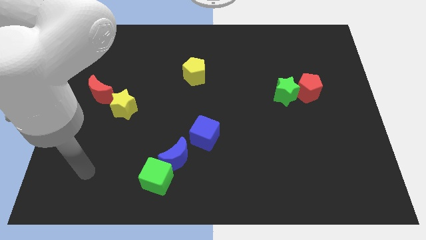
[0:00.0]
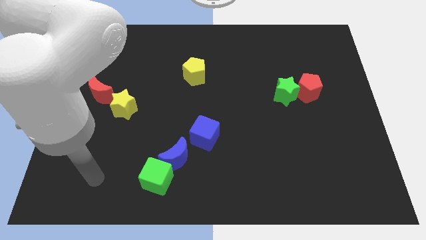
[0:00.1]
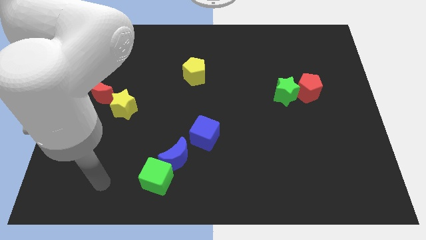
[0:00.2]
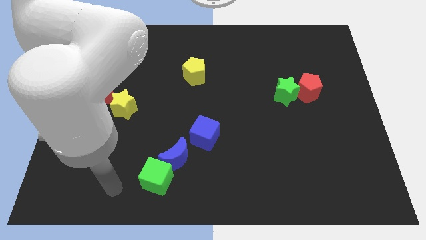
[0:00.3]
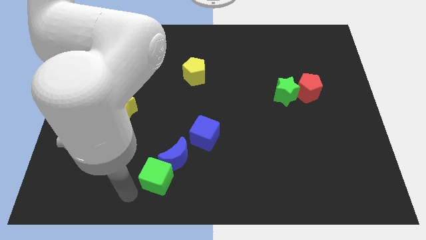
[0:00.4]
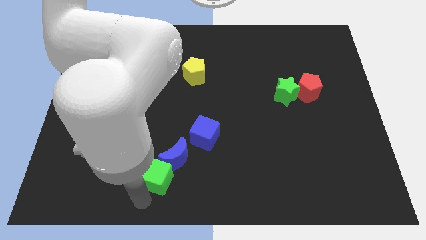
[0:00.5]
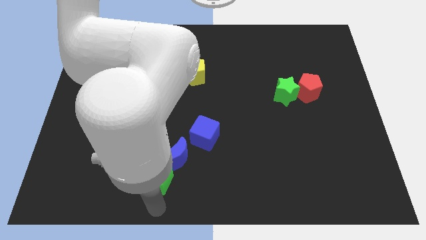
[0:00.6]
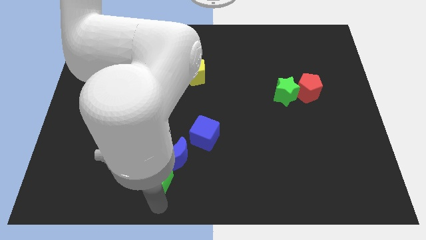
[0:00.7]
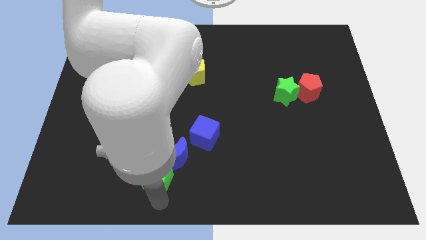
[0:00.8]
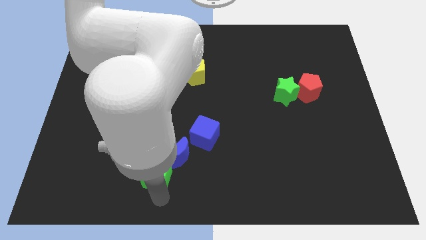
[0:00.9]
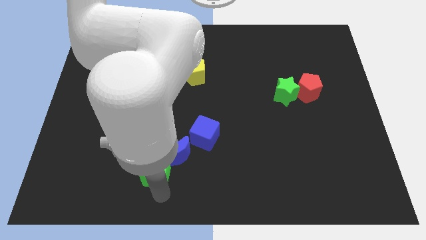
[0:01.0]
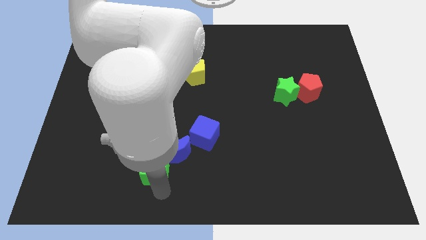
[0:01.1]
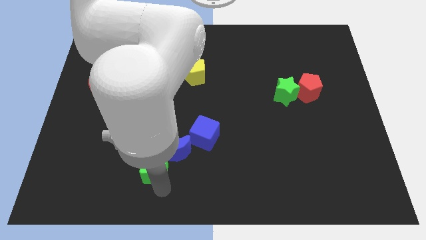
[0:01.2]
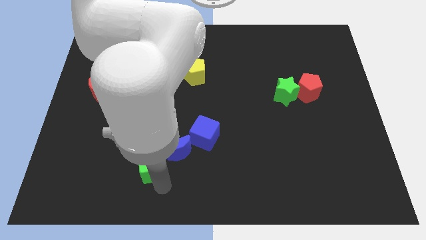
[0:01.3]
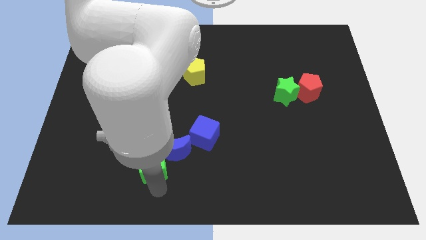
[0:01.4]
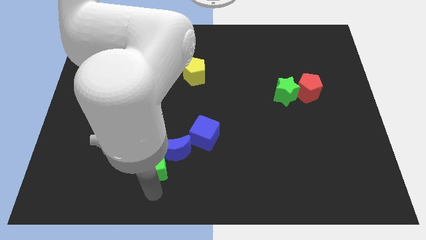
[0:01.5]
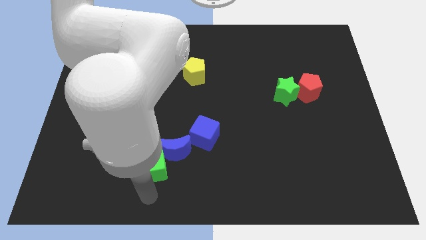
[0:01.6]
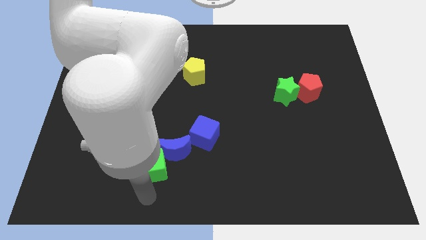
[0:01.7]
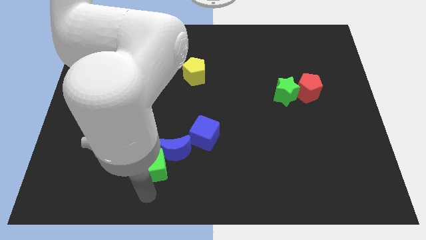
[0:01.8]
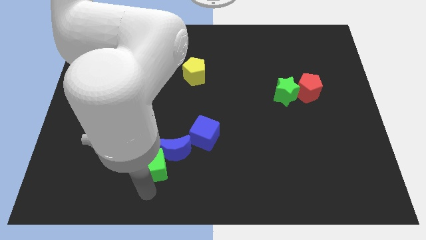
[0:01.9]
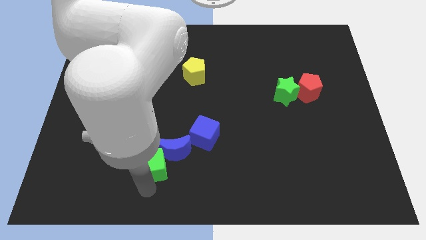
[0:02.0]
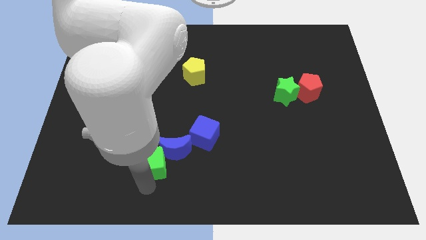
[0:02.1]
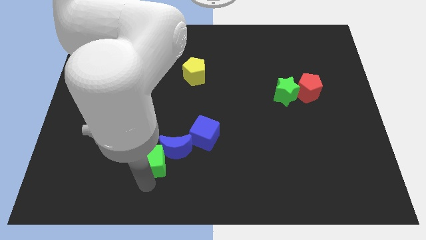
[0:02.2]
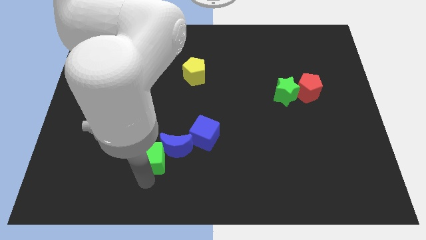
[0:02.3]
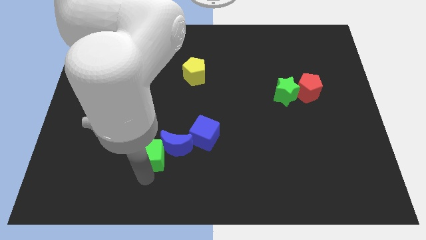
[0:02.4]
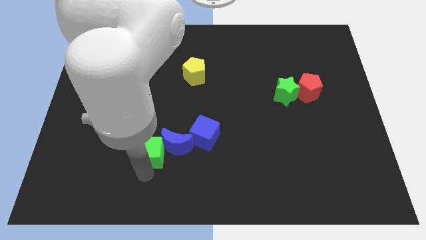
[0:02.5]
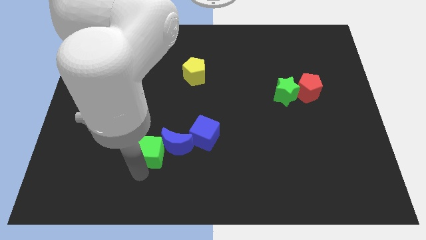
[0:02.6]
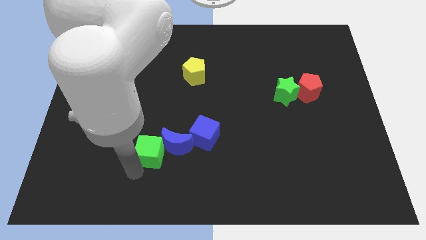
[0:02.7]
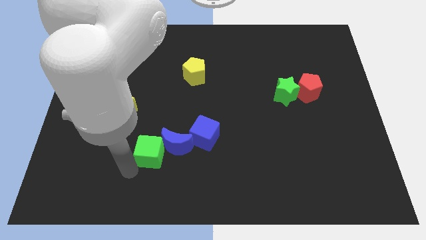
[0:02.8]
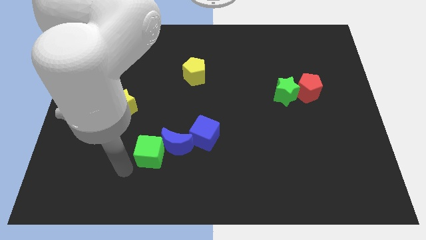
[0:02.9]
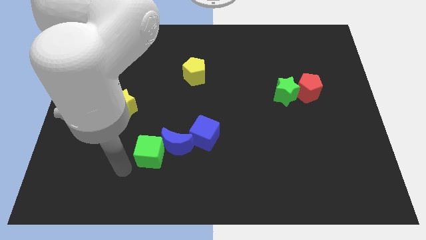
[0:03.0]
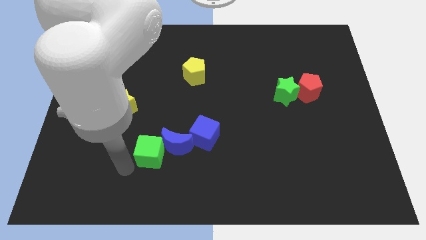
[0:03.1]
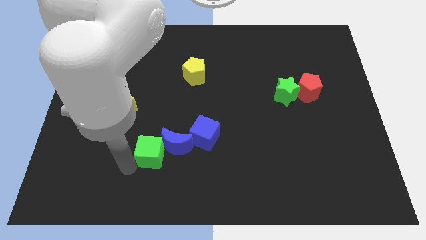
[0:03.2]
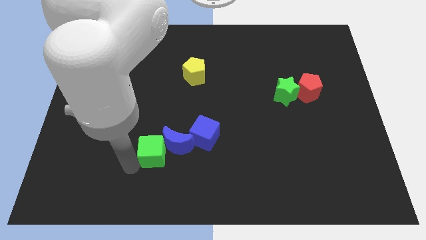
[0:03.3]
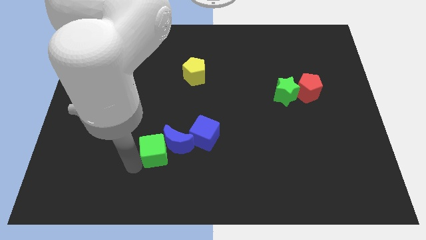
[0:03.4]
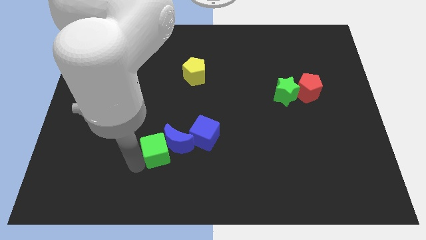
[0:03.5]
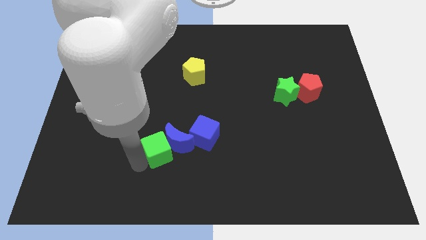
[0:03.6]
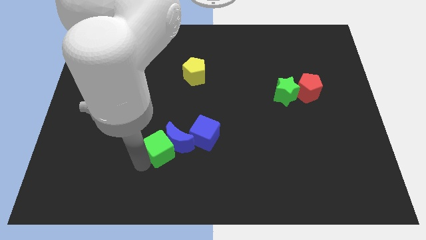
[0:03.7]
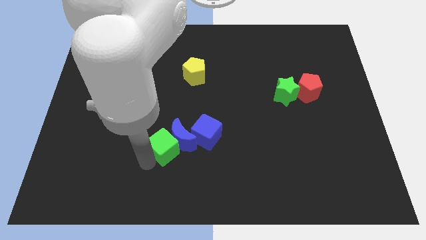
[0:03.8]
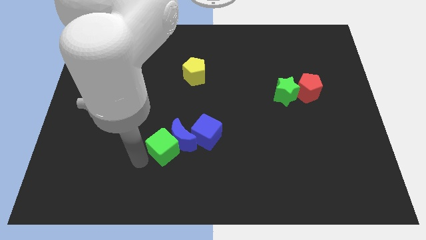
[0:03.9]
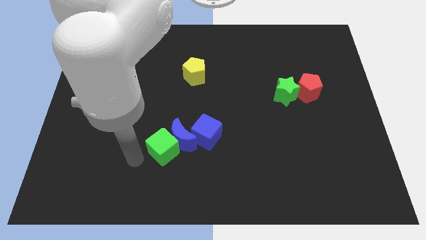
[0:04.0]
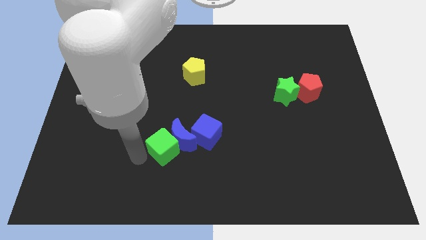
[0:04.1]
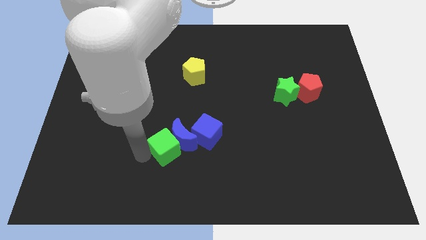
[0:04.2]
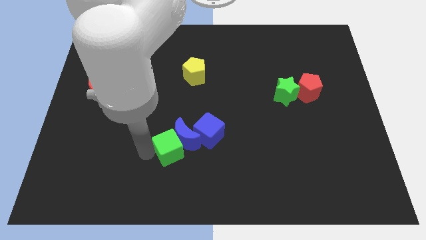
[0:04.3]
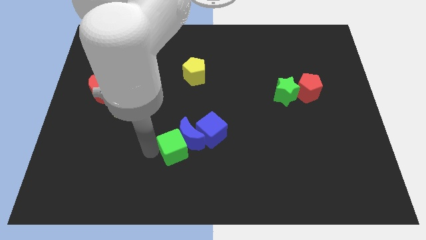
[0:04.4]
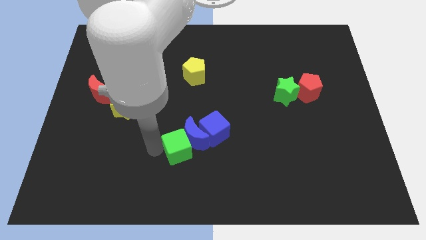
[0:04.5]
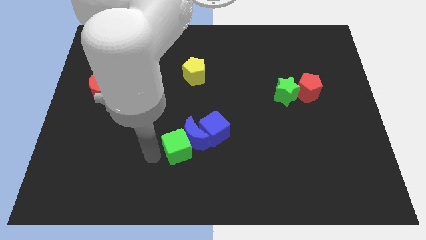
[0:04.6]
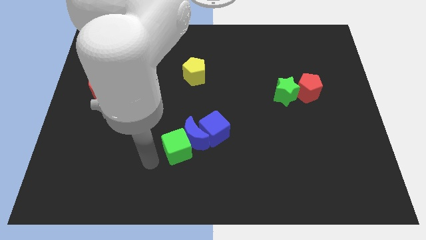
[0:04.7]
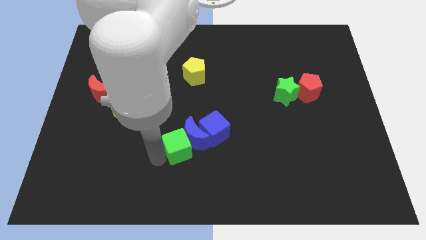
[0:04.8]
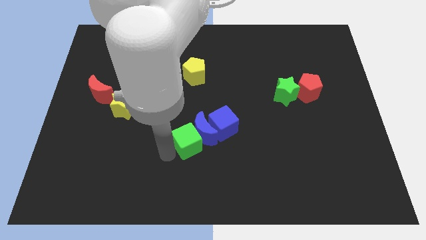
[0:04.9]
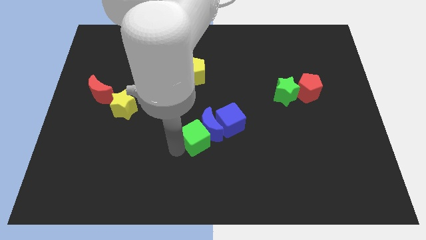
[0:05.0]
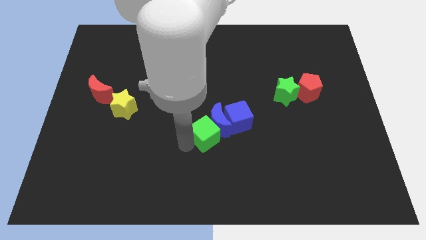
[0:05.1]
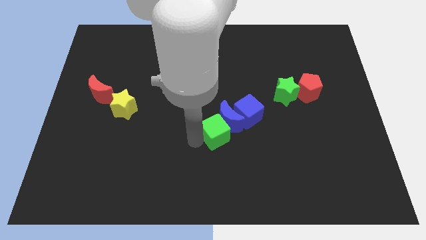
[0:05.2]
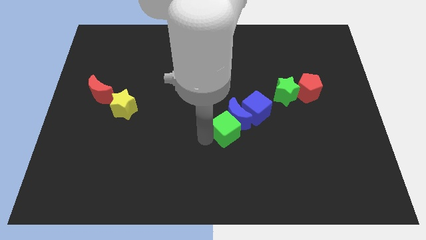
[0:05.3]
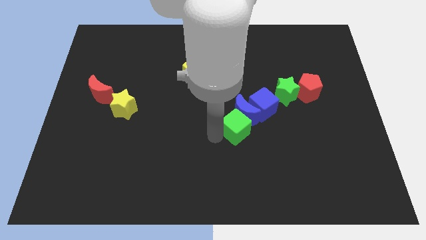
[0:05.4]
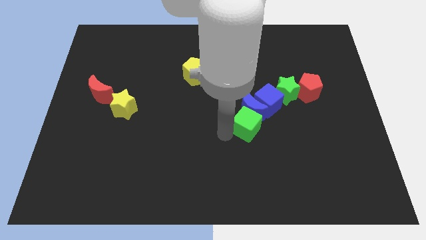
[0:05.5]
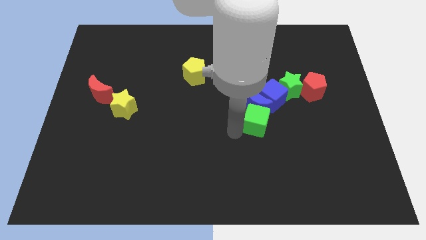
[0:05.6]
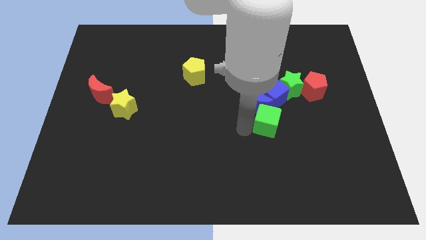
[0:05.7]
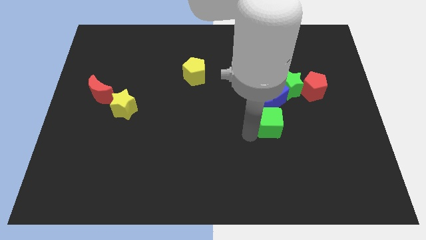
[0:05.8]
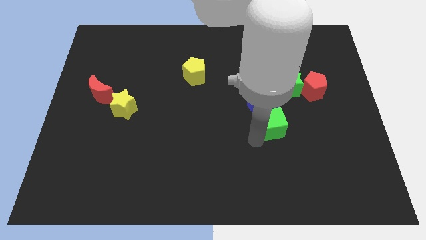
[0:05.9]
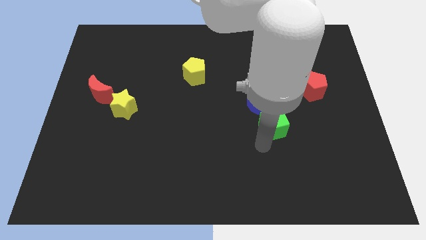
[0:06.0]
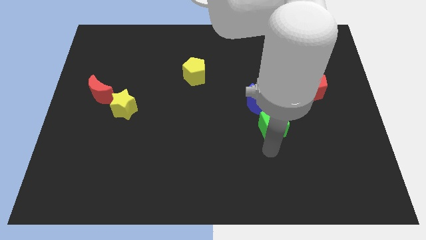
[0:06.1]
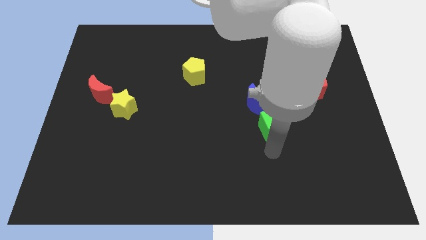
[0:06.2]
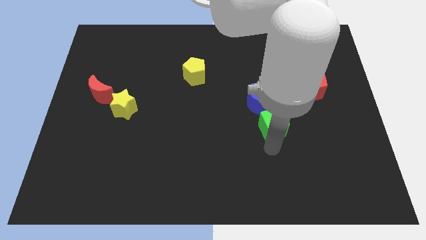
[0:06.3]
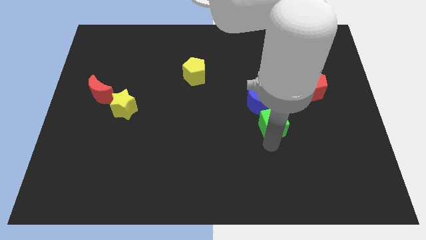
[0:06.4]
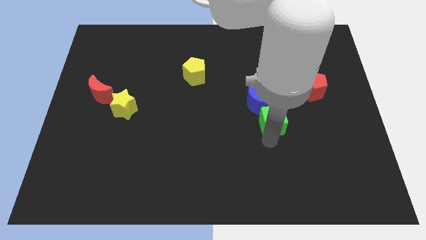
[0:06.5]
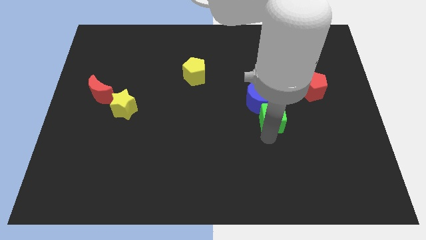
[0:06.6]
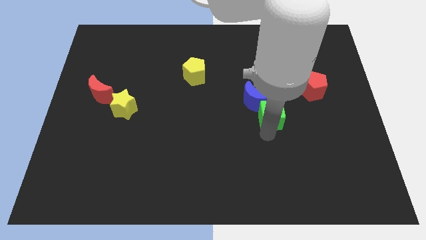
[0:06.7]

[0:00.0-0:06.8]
put the green cube to the blue cube
